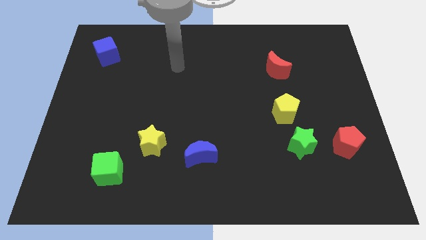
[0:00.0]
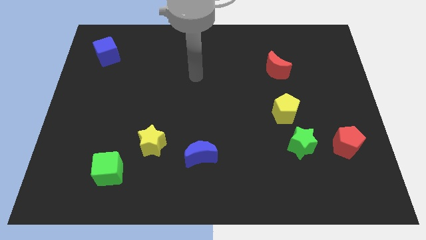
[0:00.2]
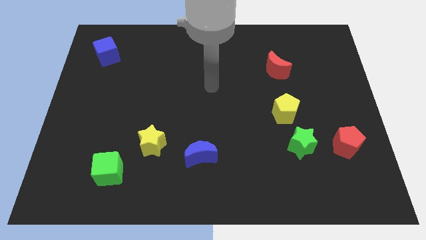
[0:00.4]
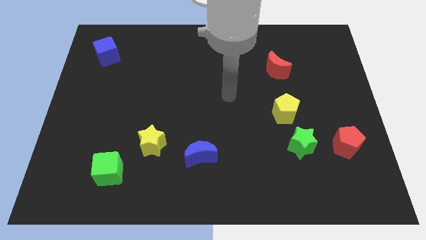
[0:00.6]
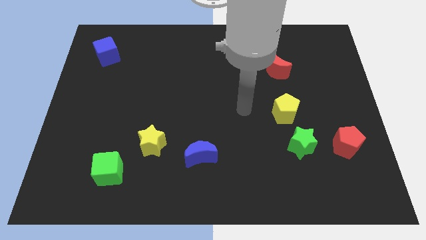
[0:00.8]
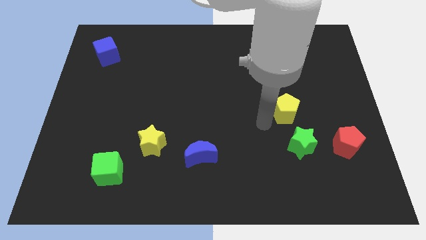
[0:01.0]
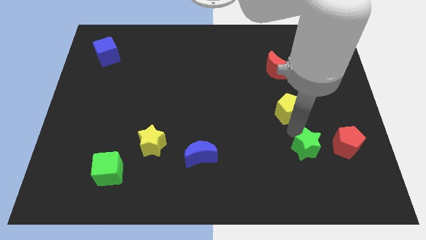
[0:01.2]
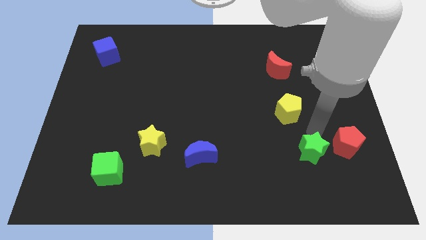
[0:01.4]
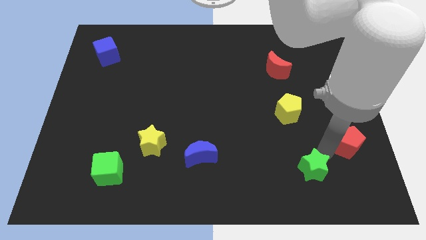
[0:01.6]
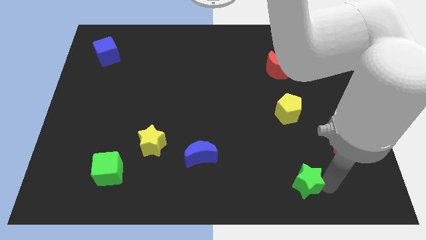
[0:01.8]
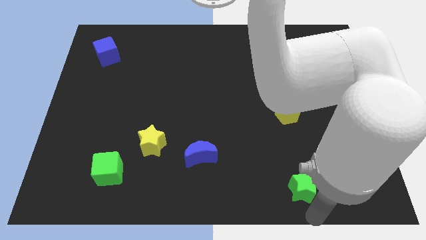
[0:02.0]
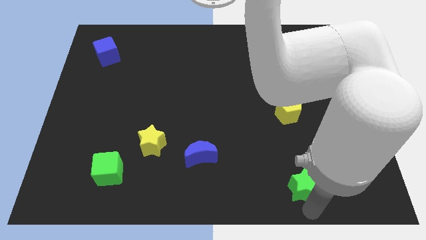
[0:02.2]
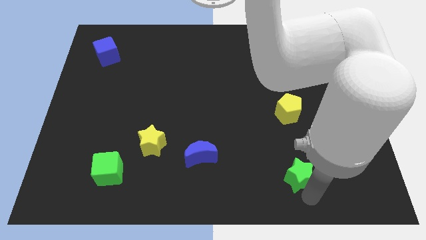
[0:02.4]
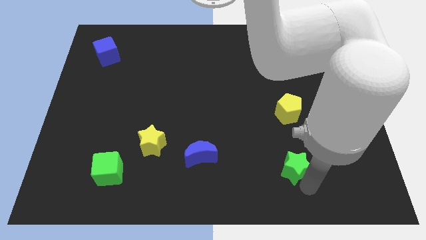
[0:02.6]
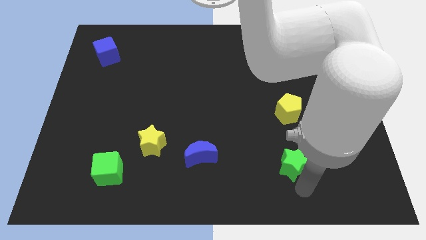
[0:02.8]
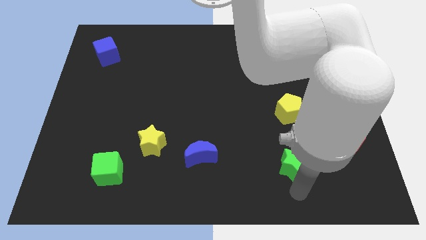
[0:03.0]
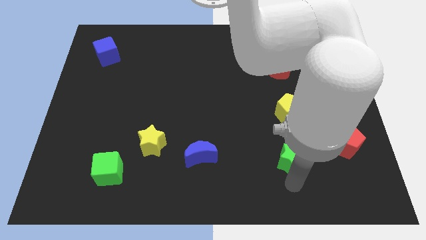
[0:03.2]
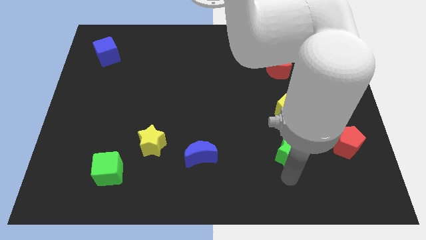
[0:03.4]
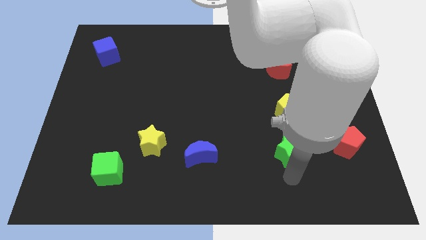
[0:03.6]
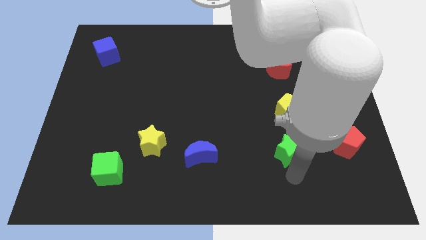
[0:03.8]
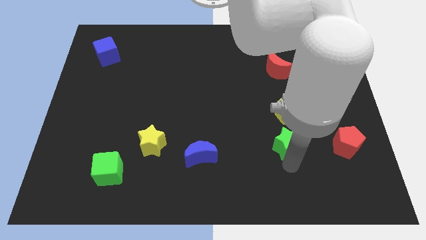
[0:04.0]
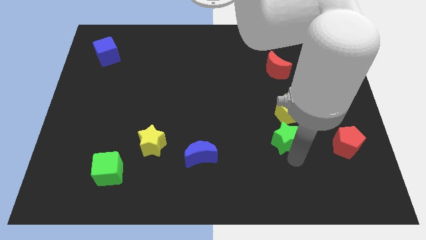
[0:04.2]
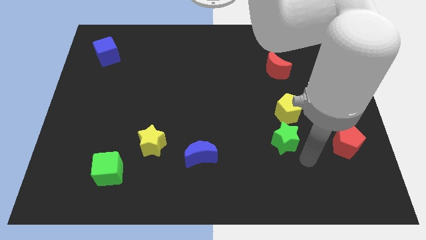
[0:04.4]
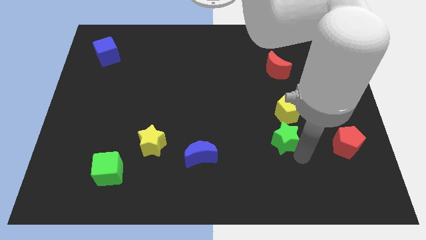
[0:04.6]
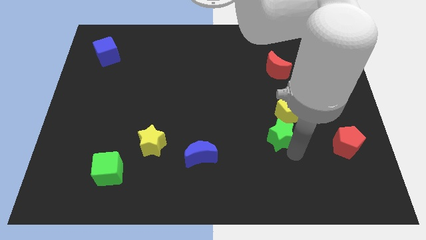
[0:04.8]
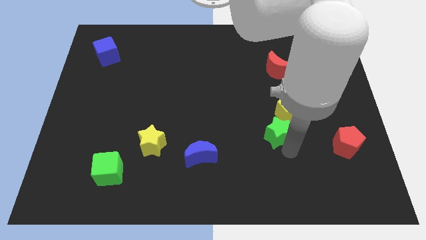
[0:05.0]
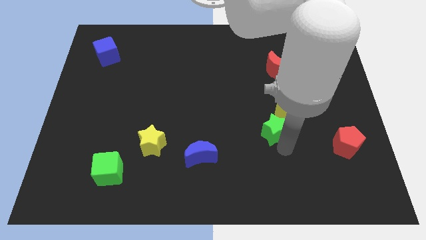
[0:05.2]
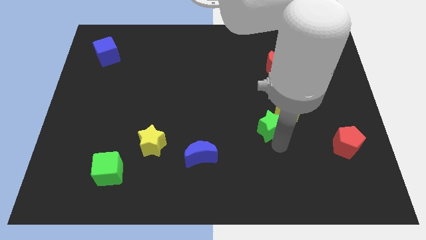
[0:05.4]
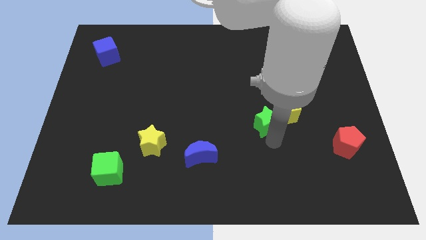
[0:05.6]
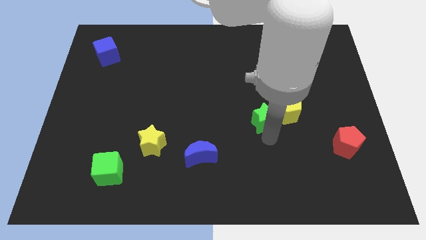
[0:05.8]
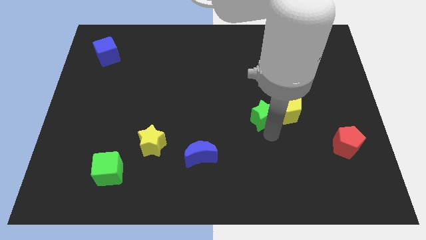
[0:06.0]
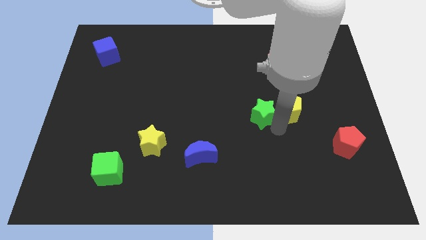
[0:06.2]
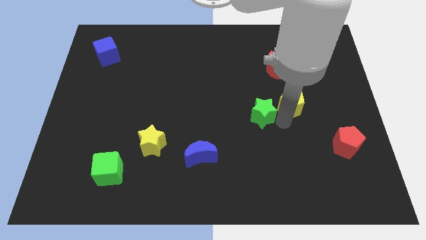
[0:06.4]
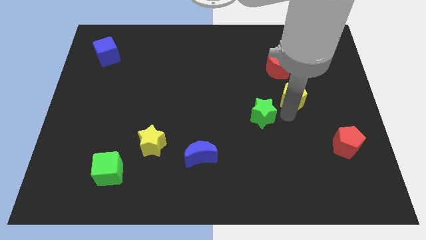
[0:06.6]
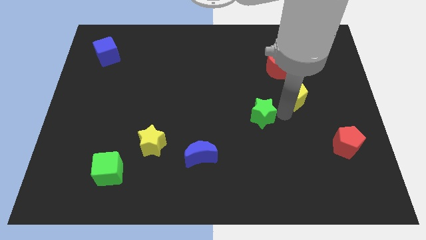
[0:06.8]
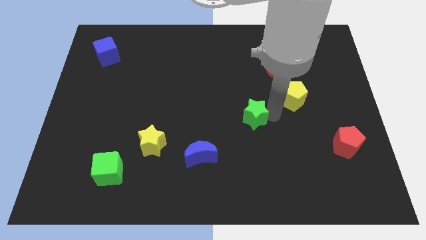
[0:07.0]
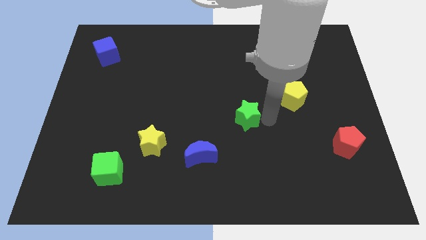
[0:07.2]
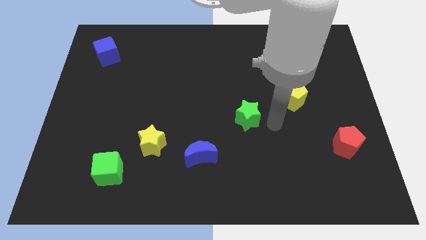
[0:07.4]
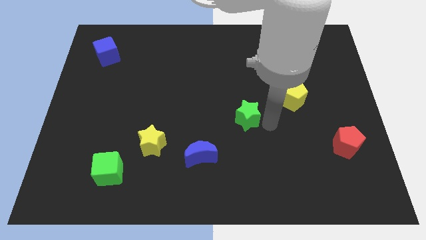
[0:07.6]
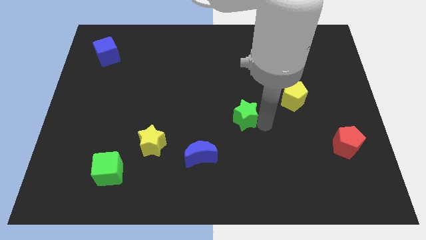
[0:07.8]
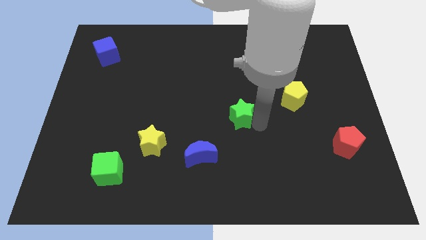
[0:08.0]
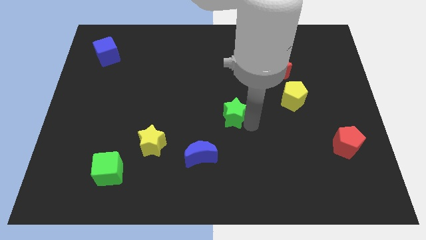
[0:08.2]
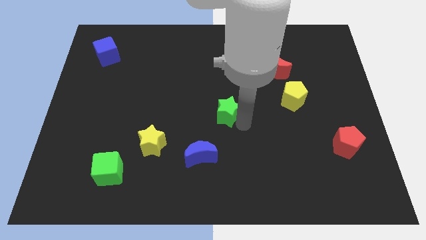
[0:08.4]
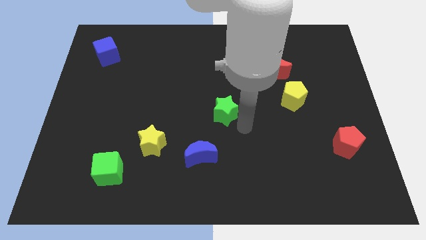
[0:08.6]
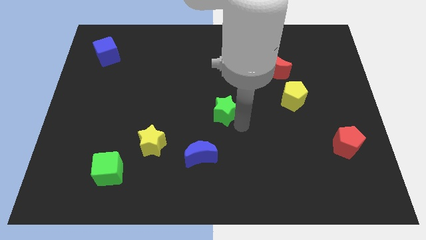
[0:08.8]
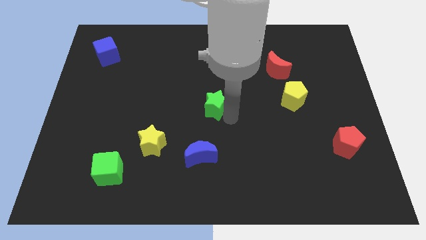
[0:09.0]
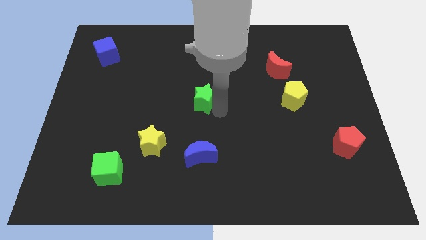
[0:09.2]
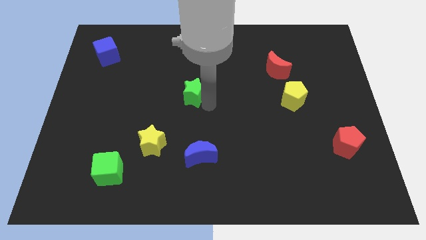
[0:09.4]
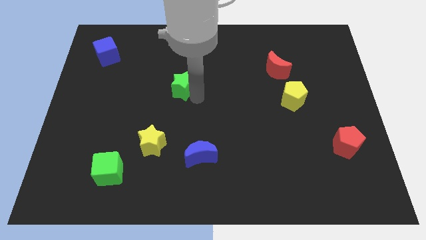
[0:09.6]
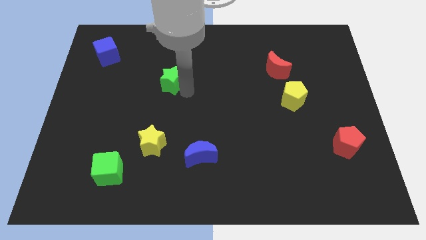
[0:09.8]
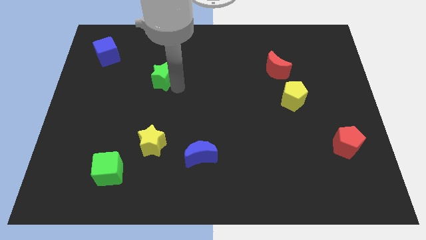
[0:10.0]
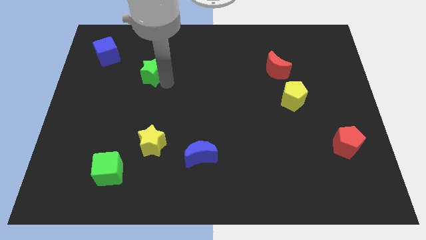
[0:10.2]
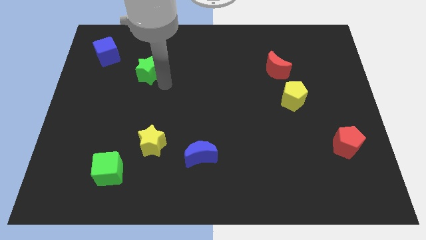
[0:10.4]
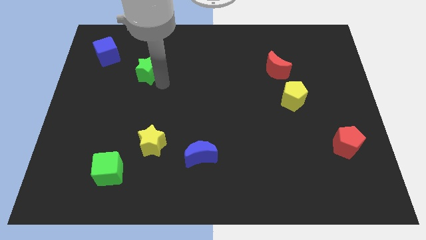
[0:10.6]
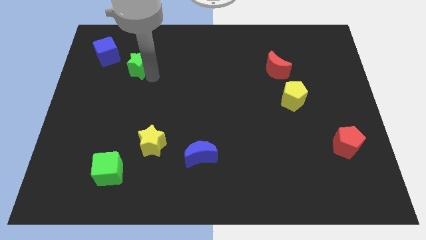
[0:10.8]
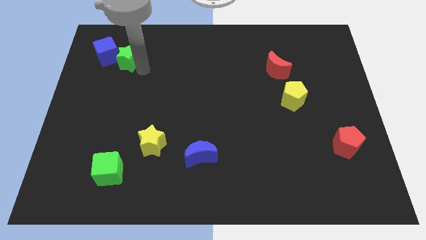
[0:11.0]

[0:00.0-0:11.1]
put the green star close to the blue cube

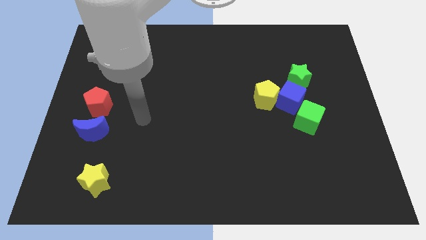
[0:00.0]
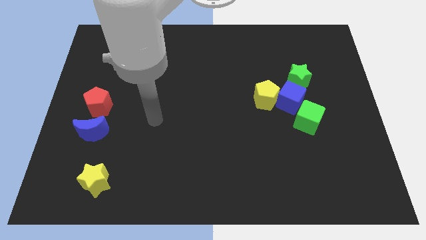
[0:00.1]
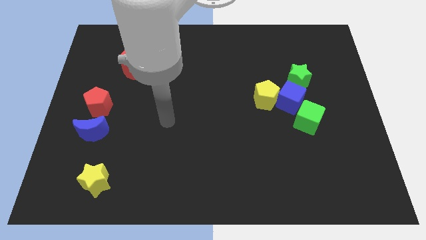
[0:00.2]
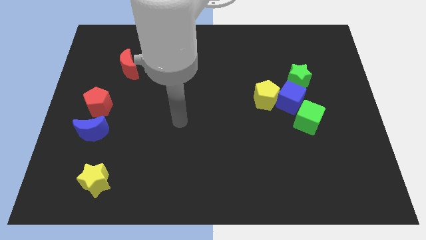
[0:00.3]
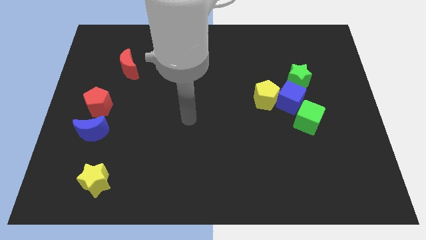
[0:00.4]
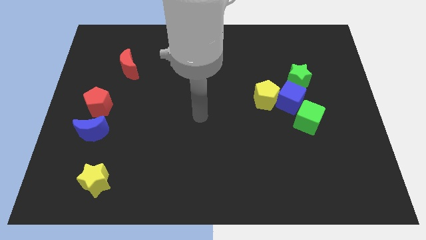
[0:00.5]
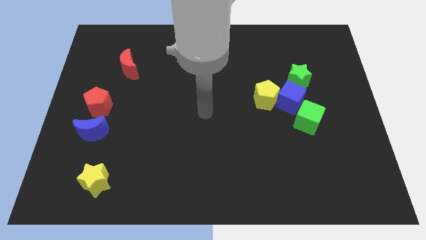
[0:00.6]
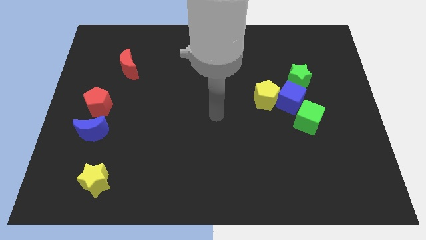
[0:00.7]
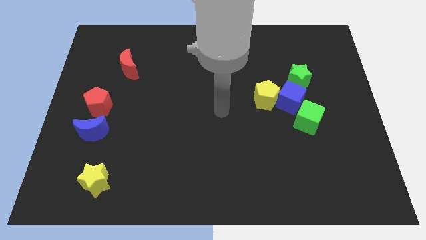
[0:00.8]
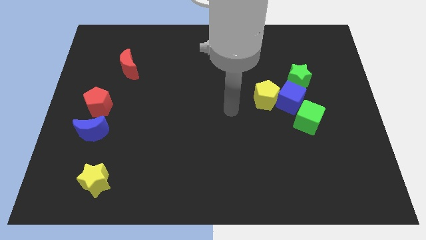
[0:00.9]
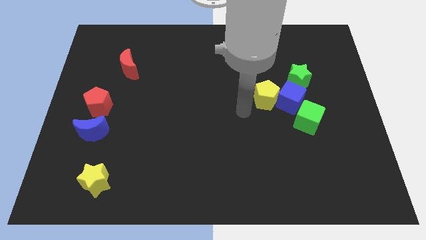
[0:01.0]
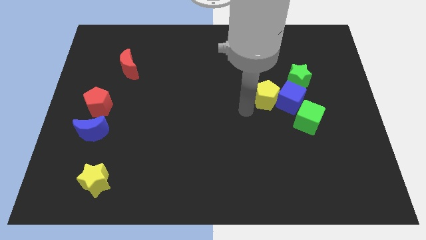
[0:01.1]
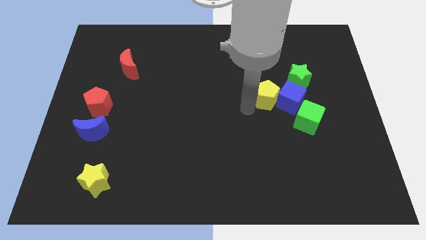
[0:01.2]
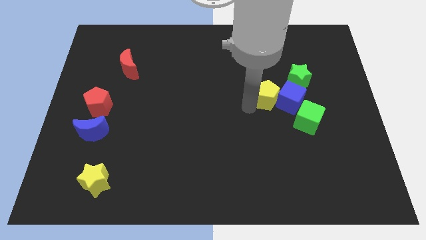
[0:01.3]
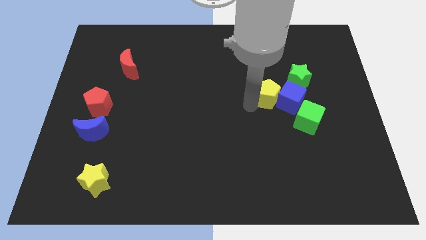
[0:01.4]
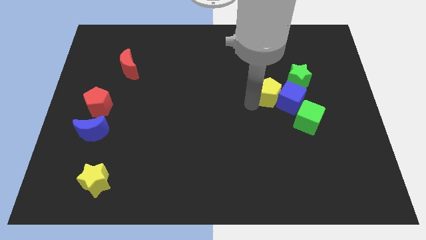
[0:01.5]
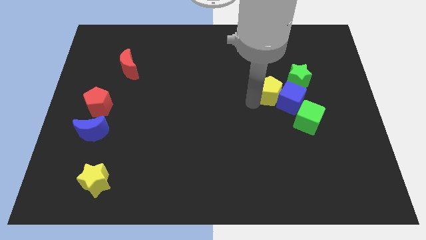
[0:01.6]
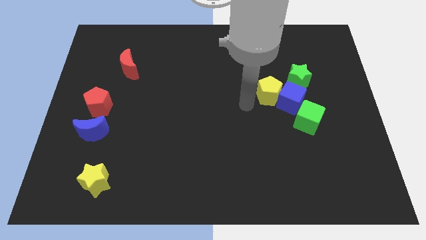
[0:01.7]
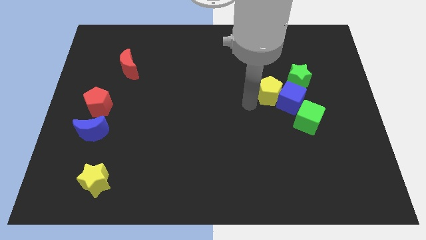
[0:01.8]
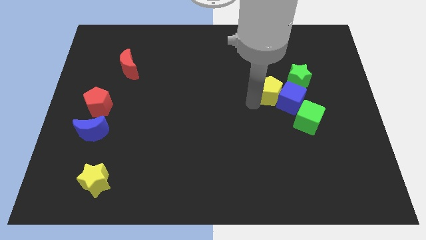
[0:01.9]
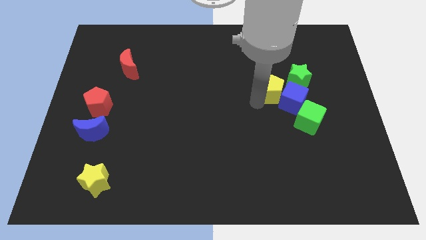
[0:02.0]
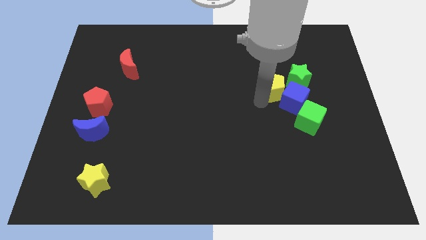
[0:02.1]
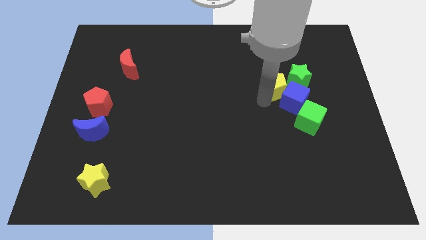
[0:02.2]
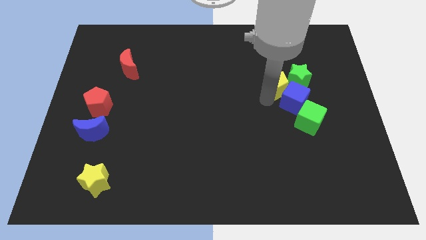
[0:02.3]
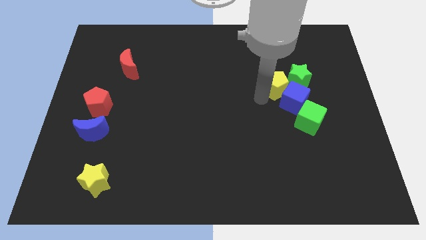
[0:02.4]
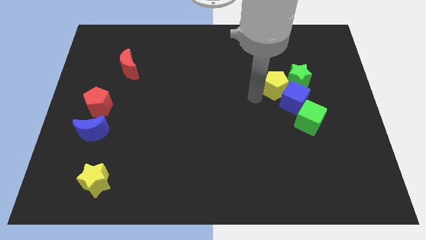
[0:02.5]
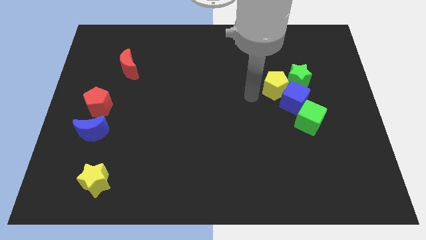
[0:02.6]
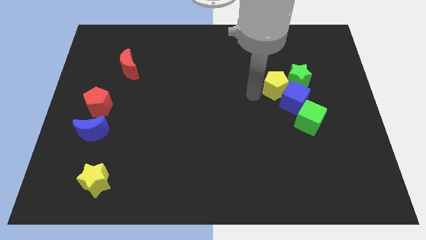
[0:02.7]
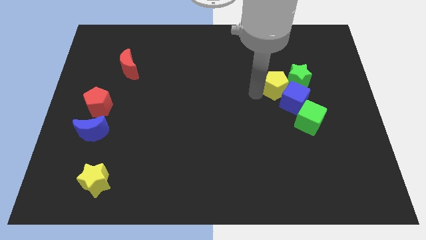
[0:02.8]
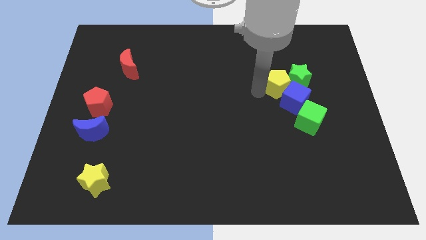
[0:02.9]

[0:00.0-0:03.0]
put the yellow pentagon towards the green star
